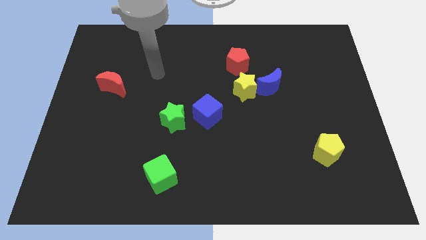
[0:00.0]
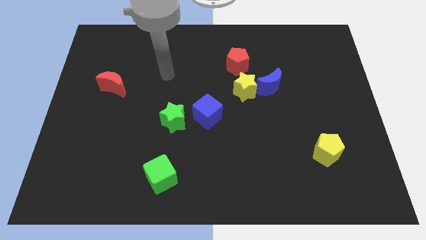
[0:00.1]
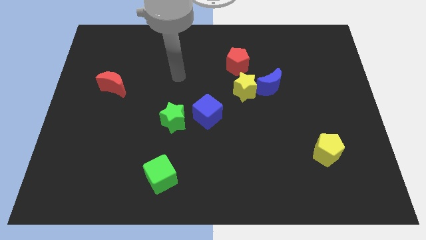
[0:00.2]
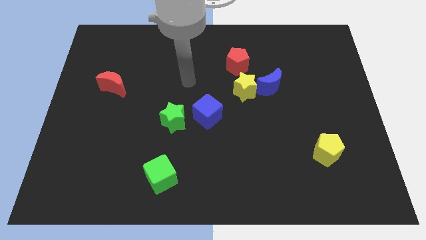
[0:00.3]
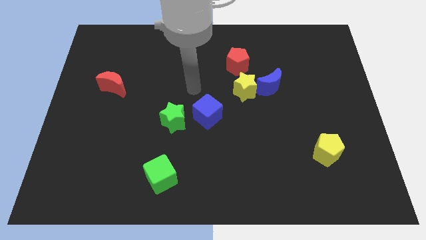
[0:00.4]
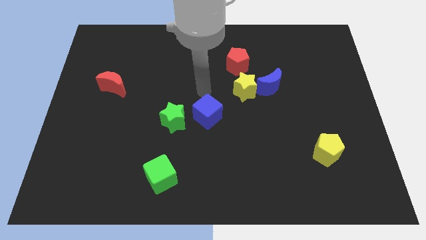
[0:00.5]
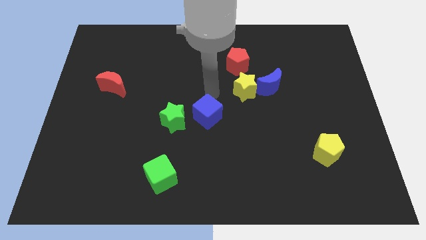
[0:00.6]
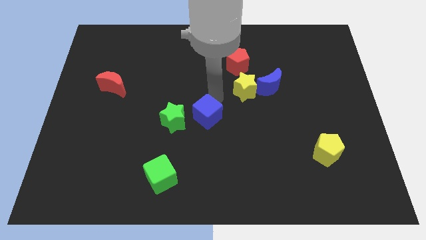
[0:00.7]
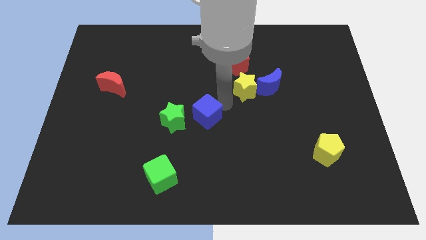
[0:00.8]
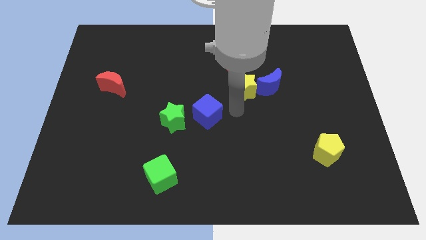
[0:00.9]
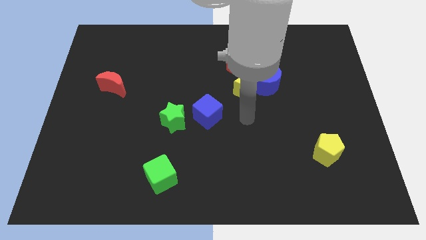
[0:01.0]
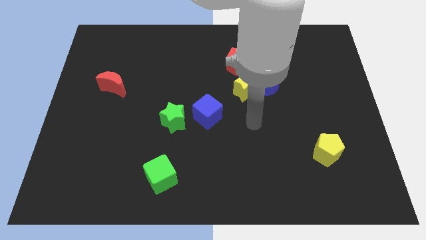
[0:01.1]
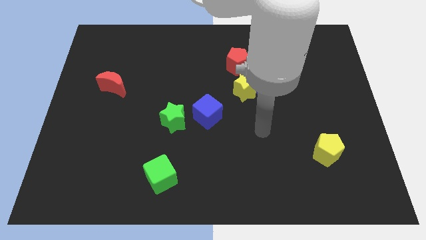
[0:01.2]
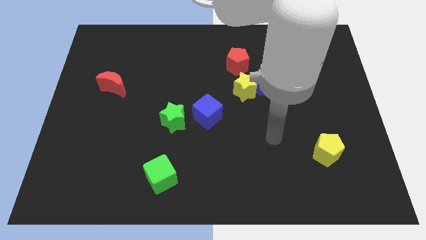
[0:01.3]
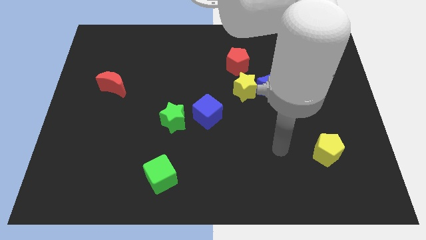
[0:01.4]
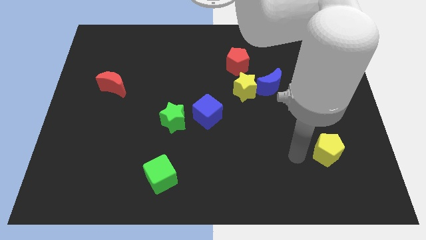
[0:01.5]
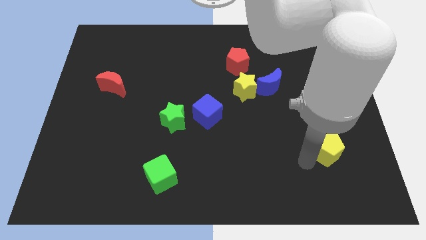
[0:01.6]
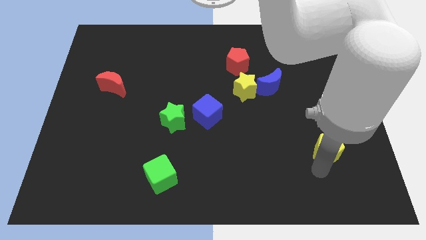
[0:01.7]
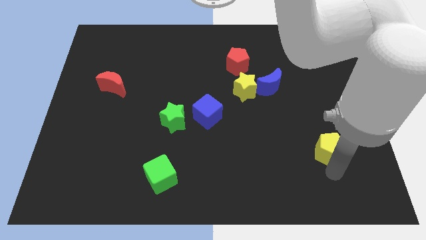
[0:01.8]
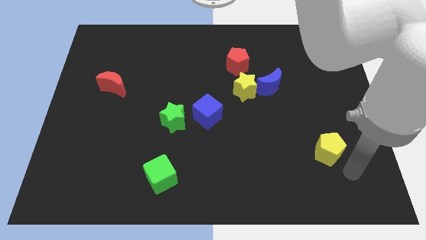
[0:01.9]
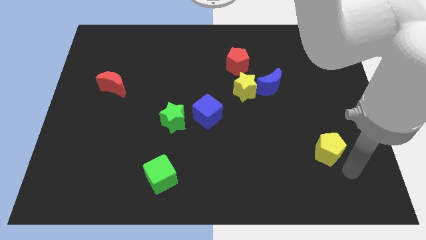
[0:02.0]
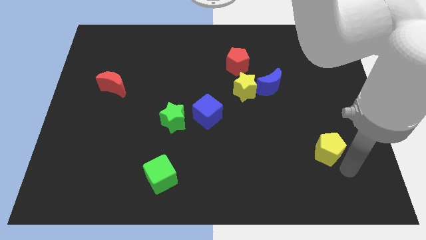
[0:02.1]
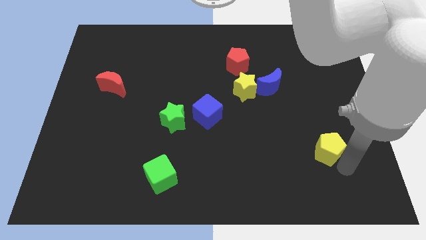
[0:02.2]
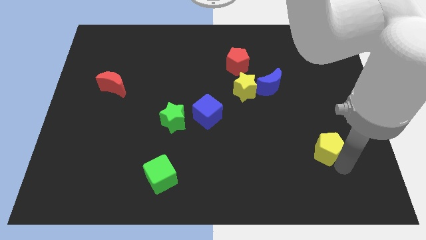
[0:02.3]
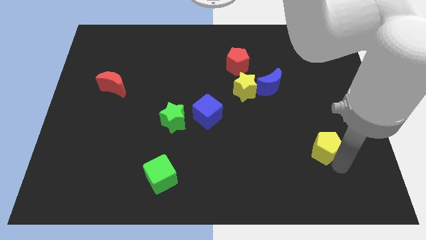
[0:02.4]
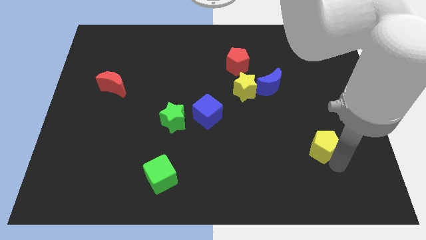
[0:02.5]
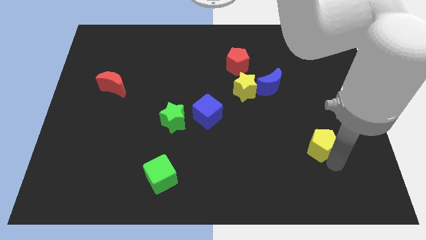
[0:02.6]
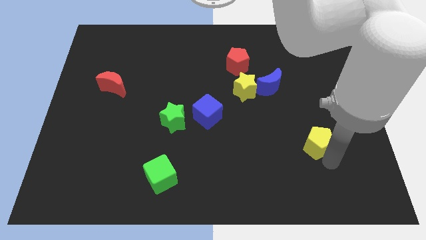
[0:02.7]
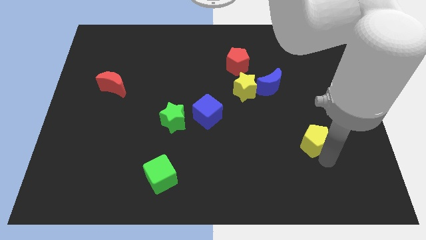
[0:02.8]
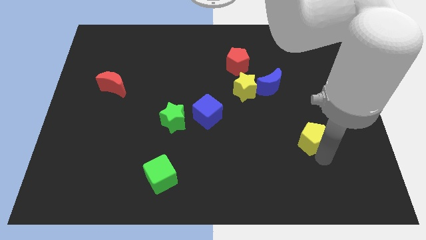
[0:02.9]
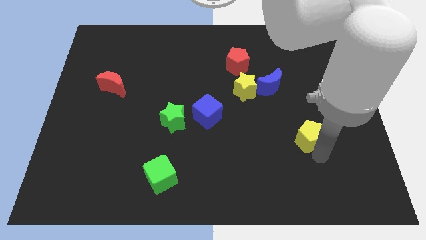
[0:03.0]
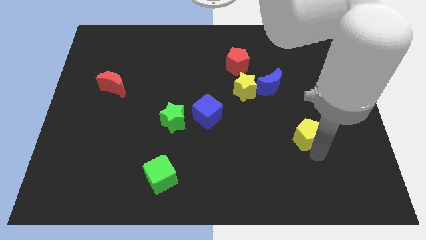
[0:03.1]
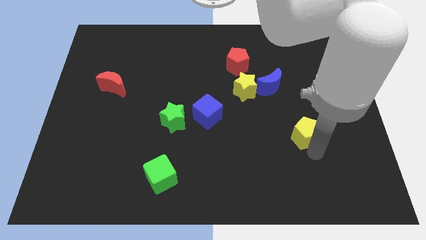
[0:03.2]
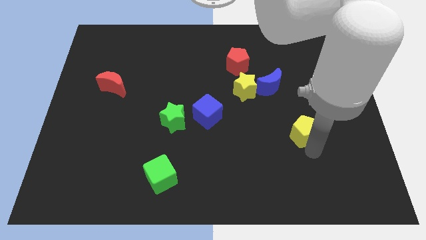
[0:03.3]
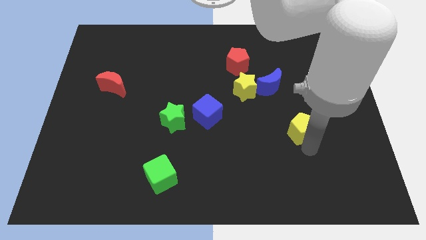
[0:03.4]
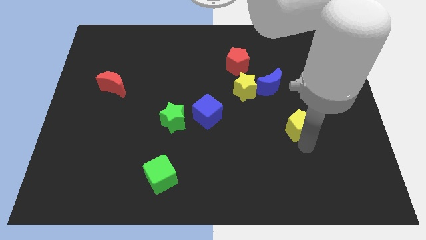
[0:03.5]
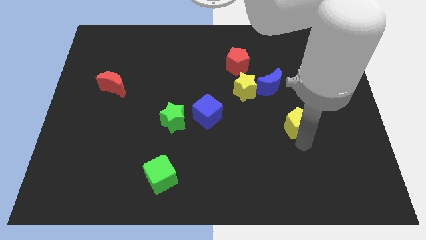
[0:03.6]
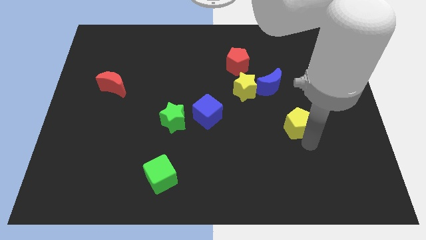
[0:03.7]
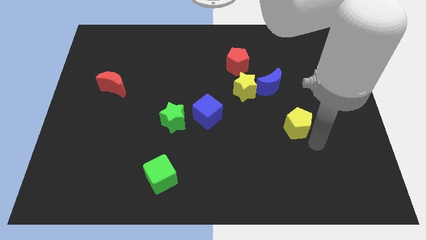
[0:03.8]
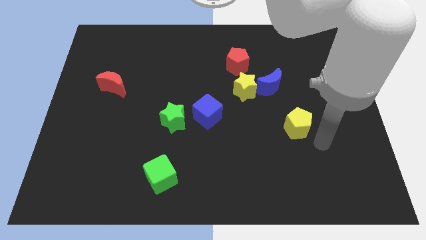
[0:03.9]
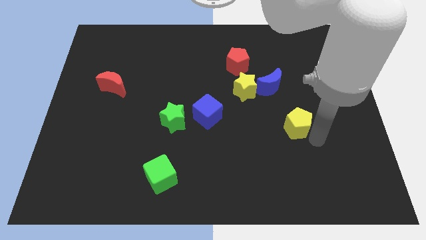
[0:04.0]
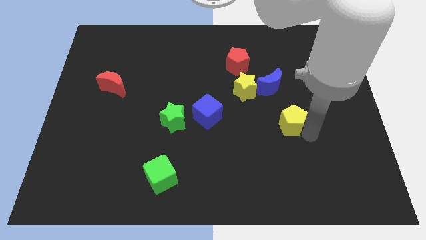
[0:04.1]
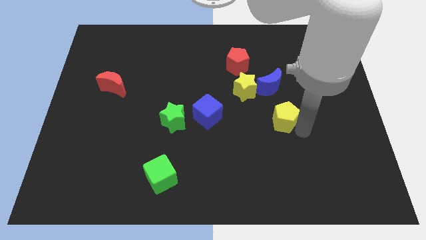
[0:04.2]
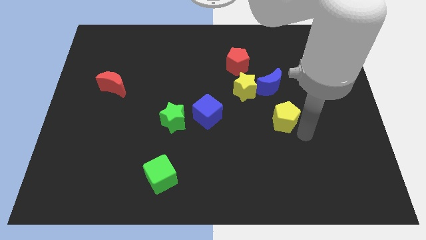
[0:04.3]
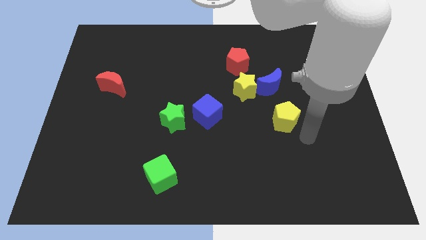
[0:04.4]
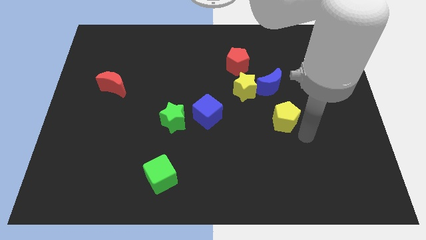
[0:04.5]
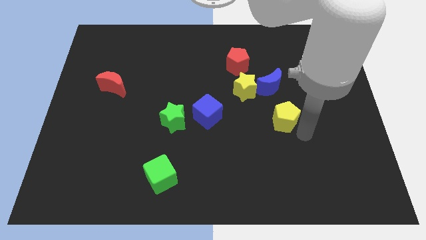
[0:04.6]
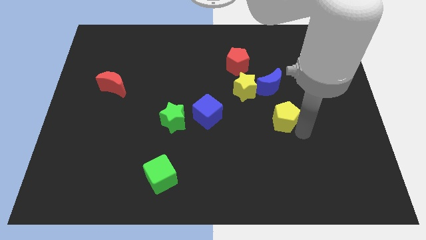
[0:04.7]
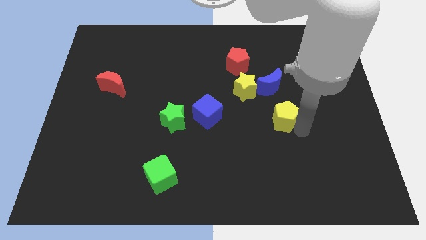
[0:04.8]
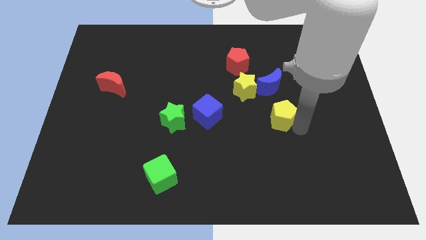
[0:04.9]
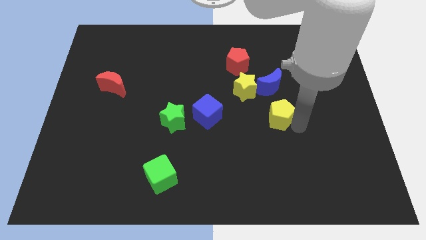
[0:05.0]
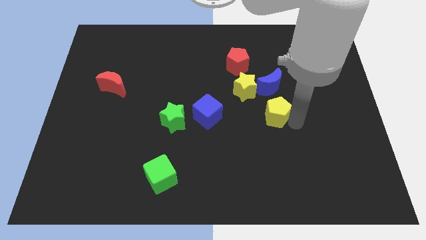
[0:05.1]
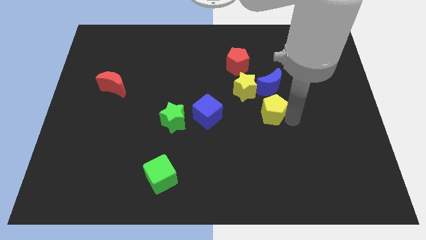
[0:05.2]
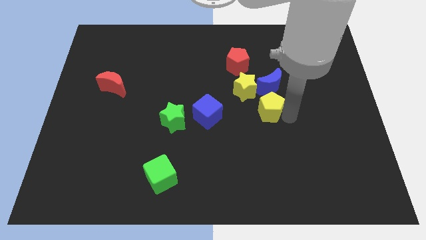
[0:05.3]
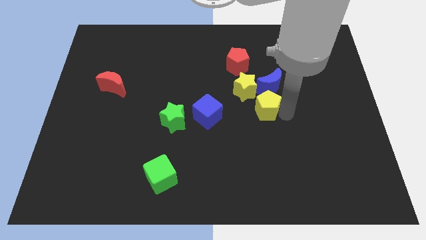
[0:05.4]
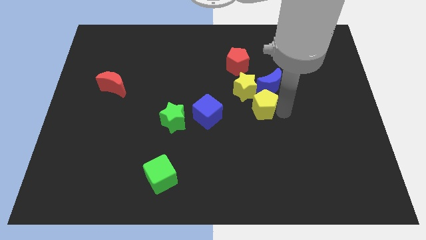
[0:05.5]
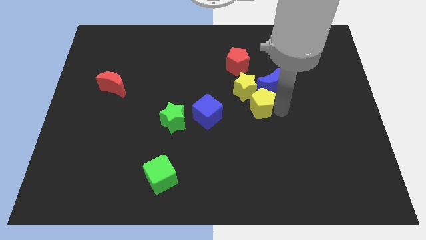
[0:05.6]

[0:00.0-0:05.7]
move the yellow pentagon towards the yellow star

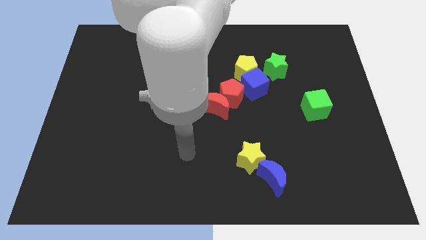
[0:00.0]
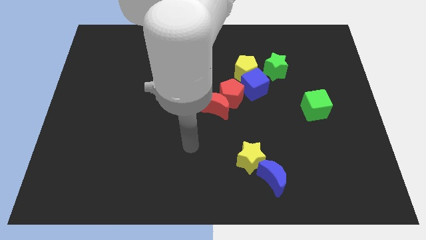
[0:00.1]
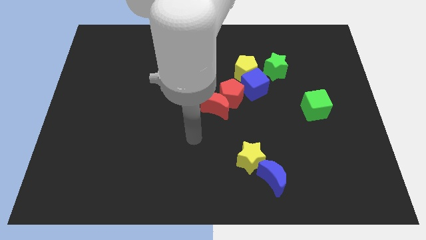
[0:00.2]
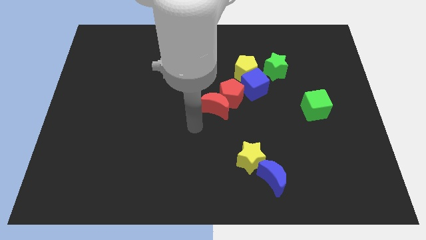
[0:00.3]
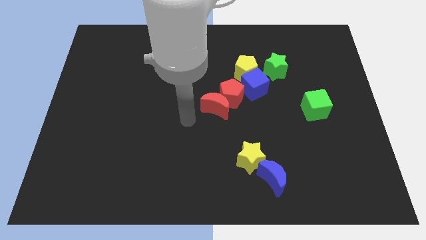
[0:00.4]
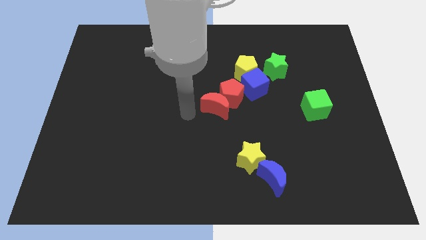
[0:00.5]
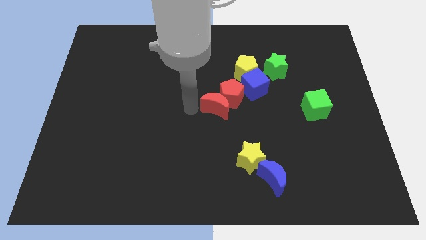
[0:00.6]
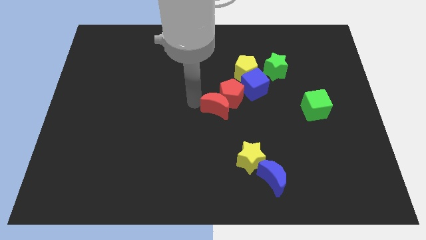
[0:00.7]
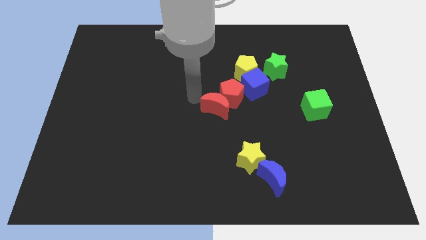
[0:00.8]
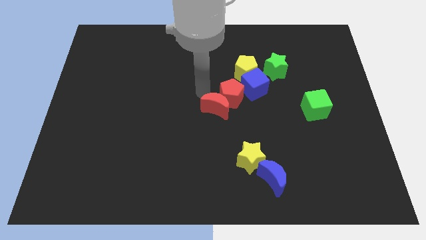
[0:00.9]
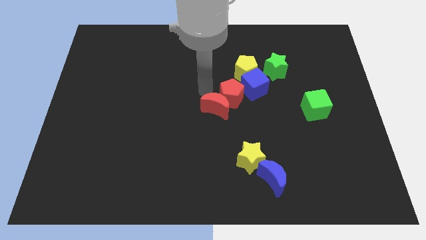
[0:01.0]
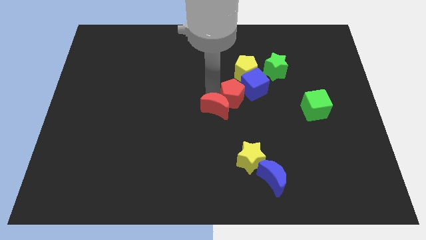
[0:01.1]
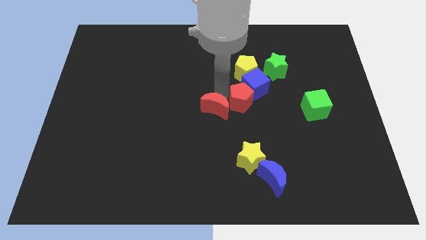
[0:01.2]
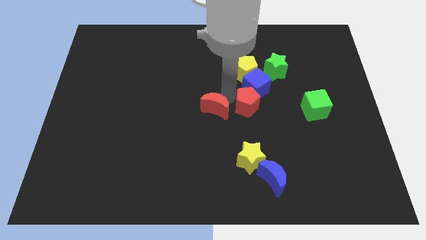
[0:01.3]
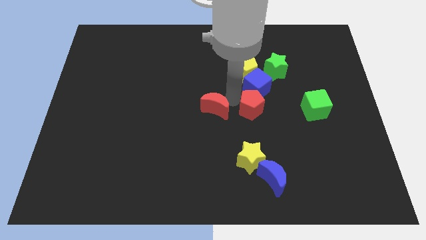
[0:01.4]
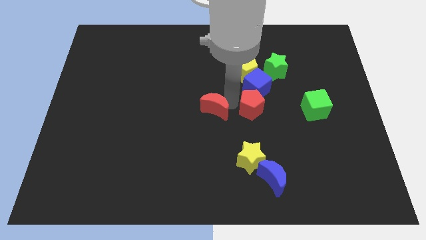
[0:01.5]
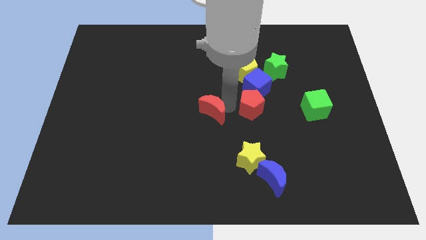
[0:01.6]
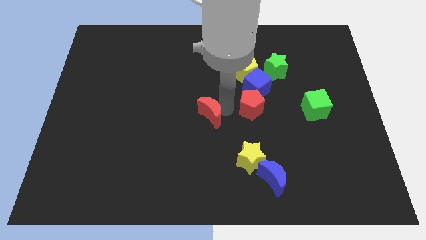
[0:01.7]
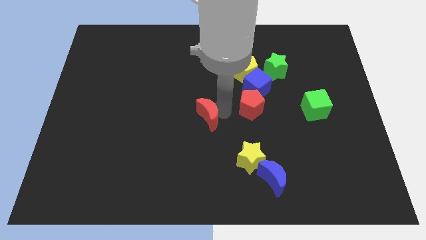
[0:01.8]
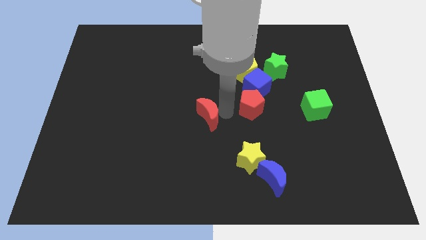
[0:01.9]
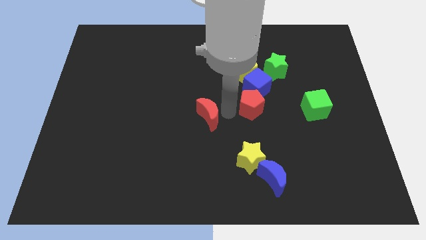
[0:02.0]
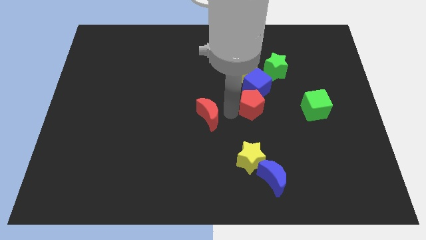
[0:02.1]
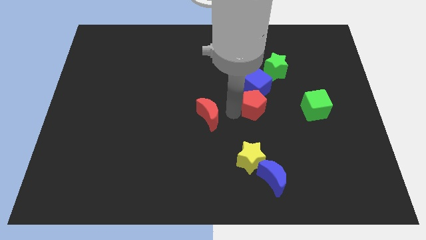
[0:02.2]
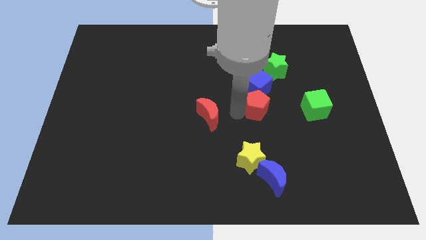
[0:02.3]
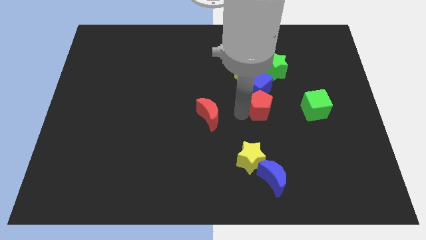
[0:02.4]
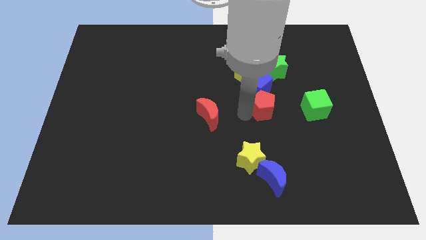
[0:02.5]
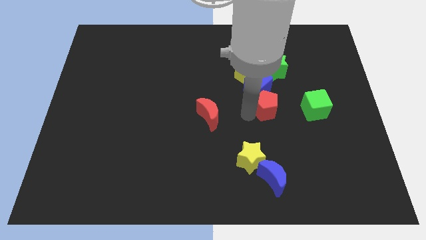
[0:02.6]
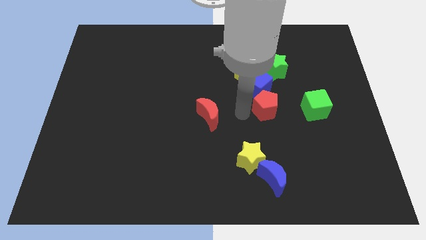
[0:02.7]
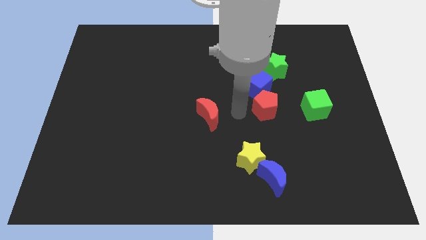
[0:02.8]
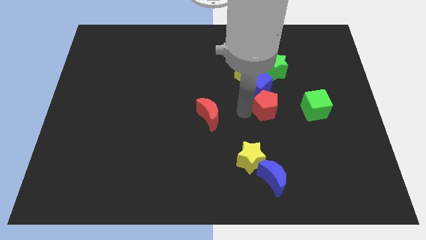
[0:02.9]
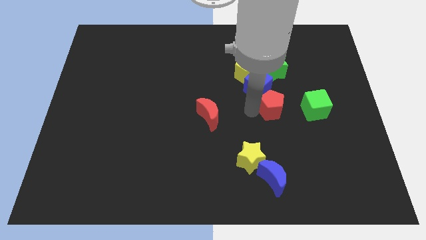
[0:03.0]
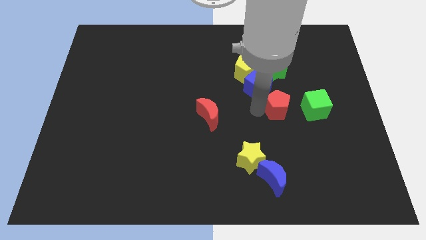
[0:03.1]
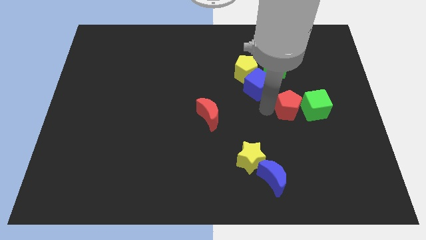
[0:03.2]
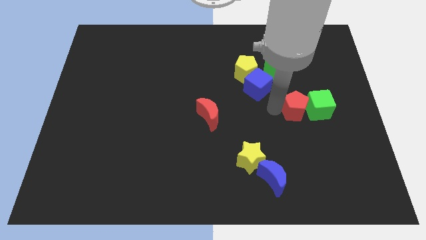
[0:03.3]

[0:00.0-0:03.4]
put the red pentagon close to the green cube
